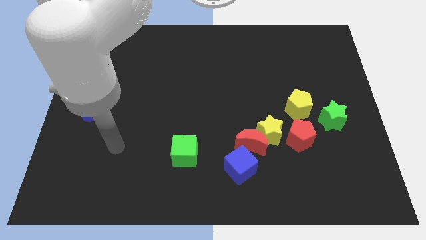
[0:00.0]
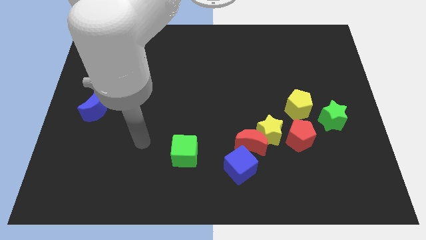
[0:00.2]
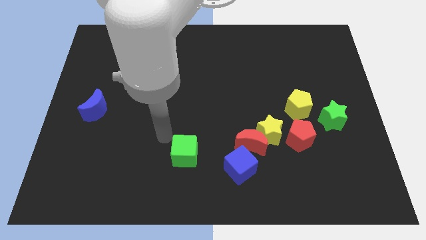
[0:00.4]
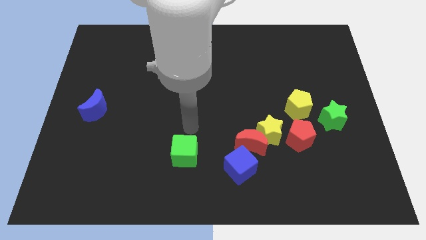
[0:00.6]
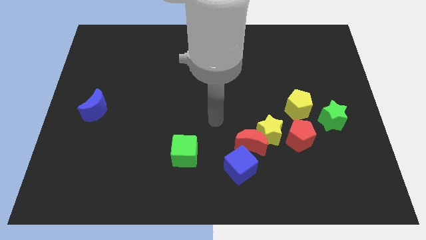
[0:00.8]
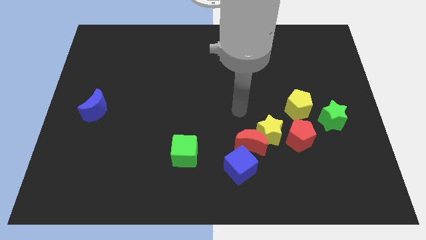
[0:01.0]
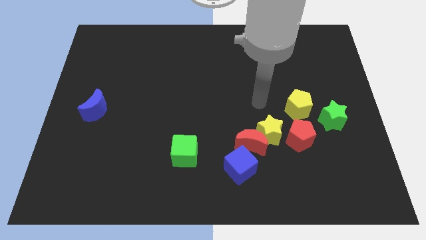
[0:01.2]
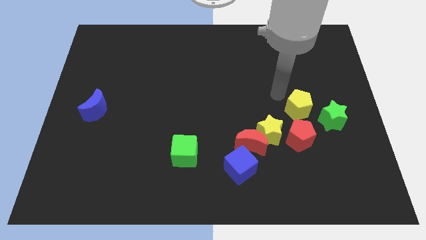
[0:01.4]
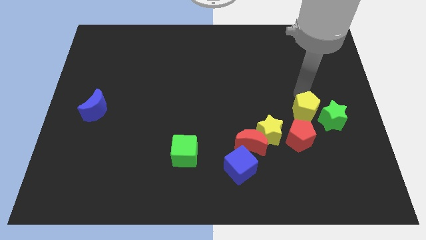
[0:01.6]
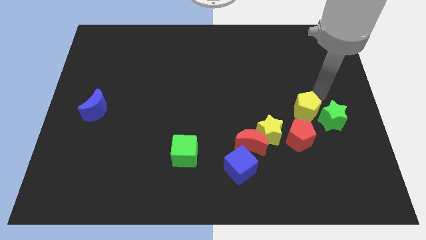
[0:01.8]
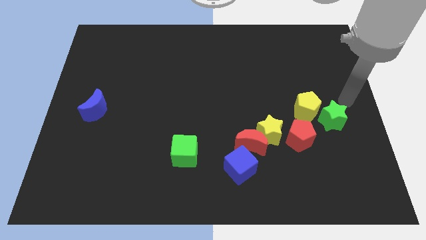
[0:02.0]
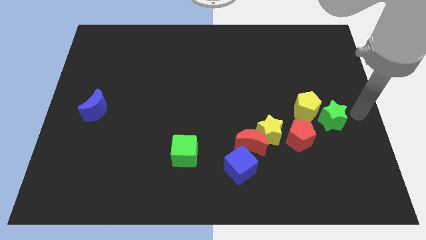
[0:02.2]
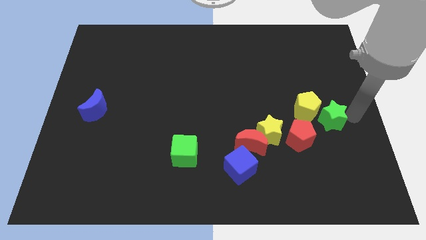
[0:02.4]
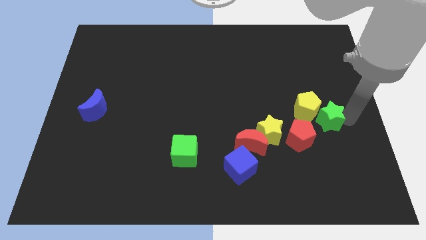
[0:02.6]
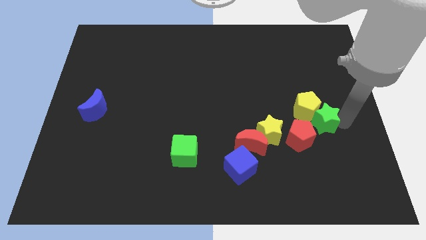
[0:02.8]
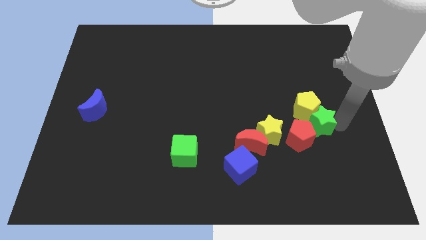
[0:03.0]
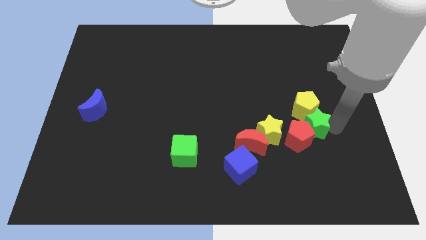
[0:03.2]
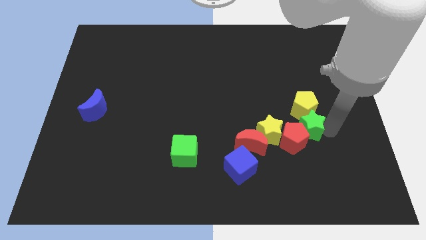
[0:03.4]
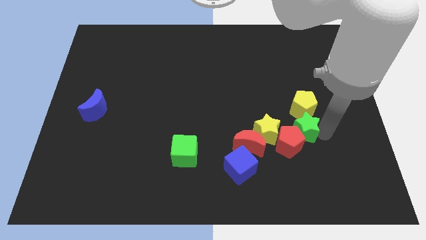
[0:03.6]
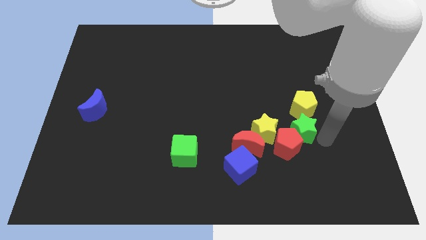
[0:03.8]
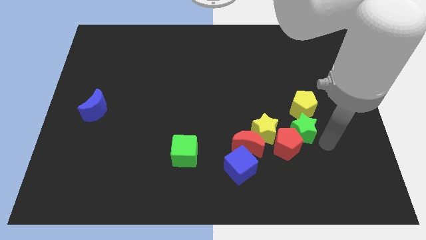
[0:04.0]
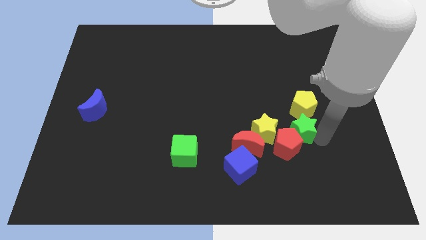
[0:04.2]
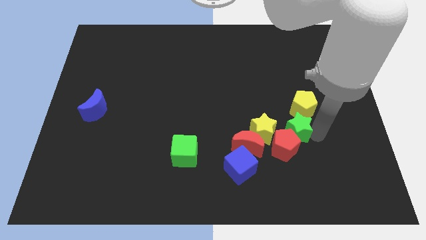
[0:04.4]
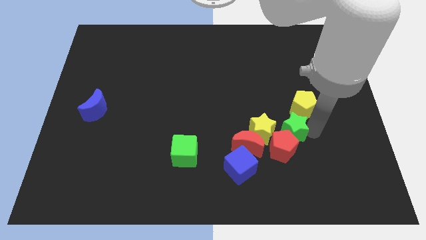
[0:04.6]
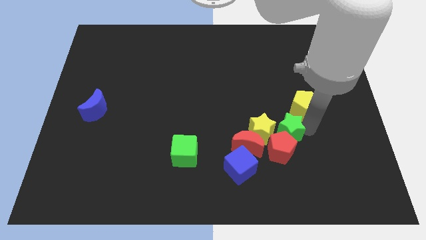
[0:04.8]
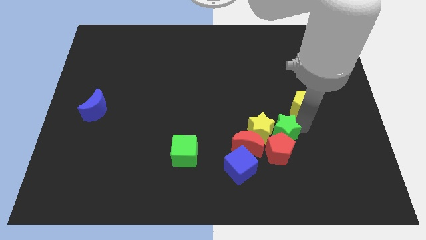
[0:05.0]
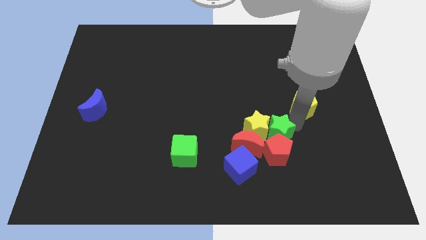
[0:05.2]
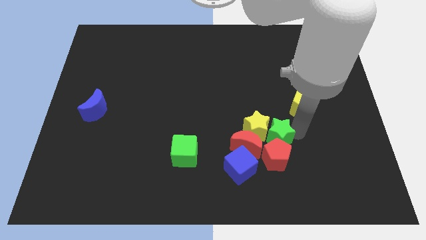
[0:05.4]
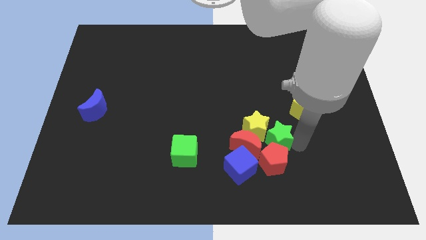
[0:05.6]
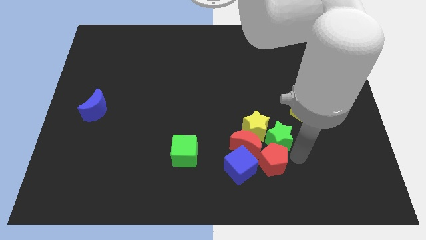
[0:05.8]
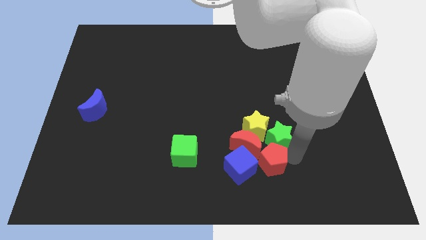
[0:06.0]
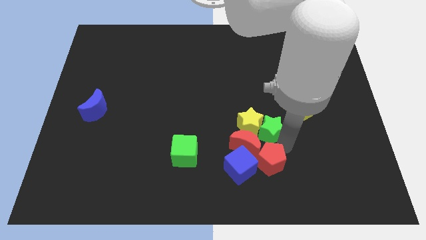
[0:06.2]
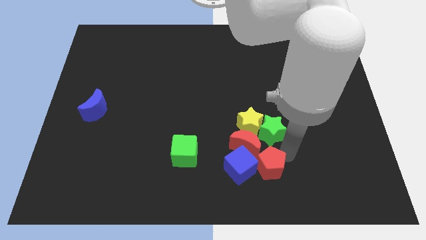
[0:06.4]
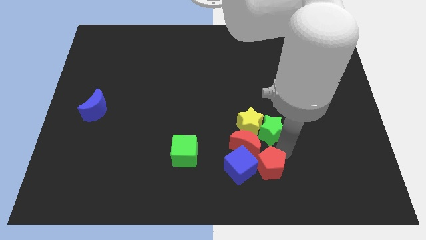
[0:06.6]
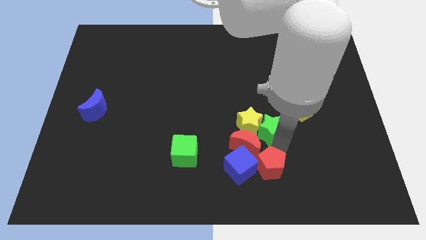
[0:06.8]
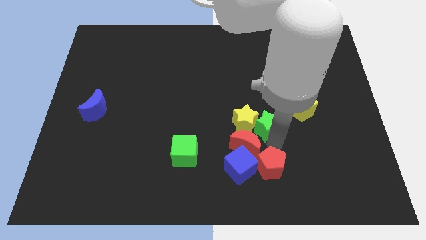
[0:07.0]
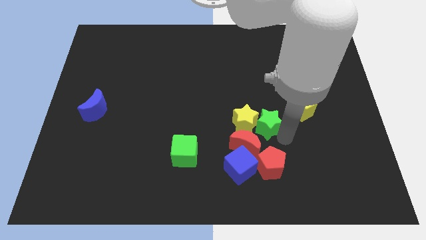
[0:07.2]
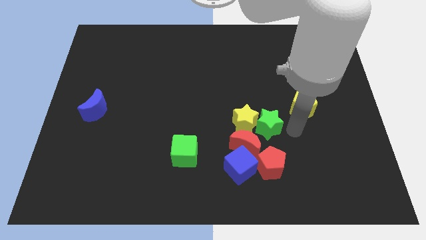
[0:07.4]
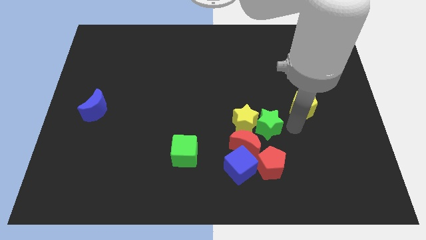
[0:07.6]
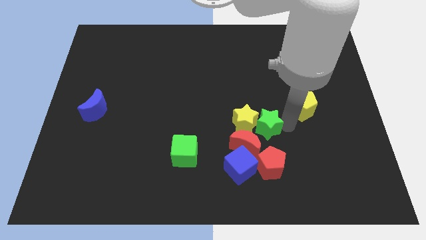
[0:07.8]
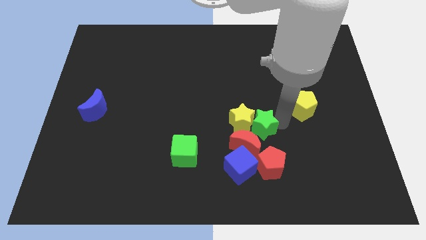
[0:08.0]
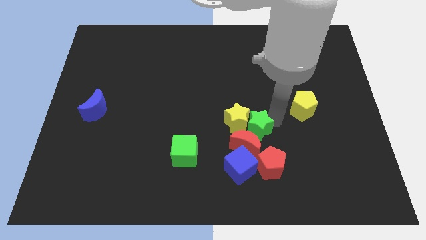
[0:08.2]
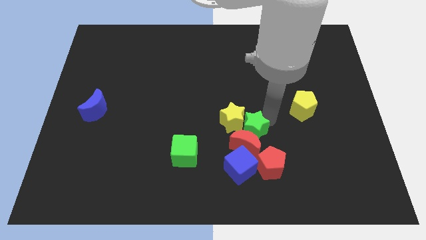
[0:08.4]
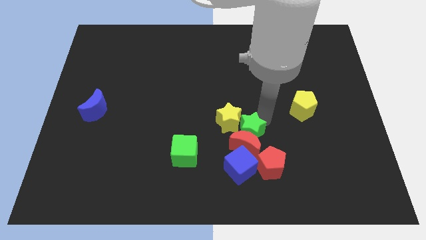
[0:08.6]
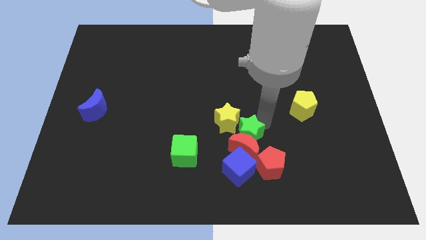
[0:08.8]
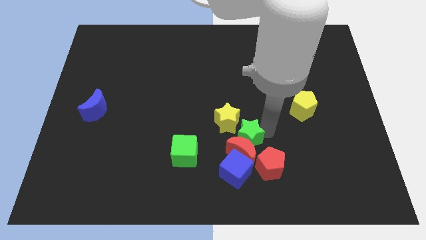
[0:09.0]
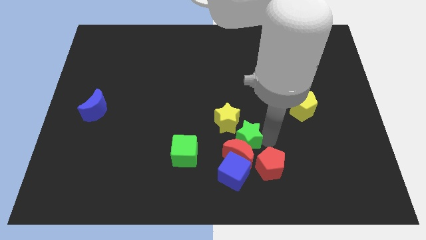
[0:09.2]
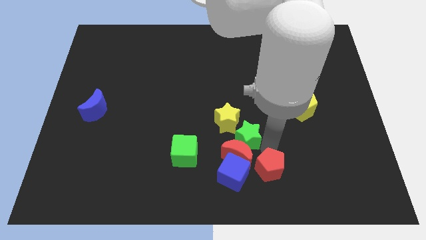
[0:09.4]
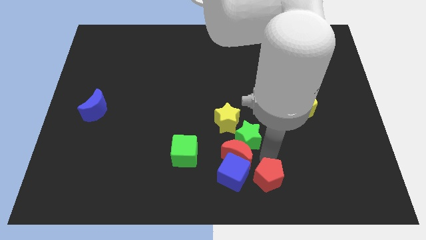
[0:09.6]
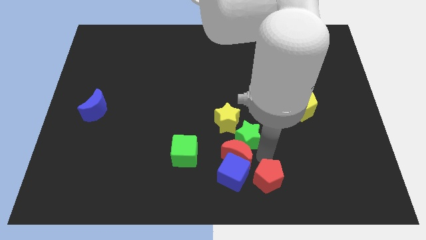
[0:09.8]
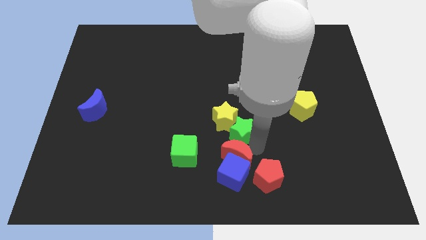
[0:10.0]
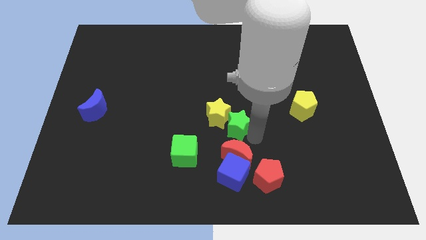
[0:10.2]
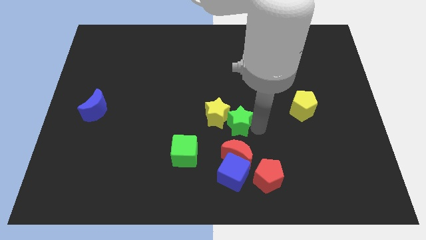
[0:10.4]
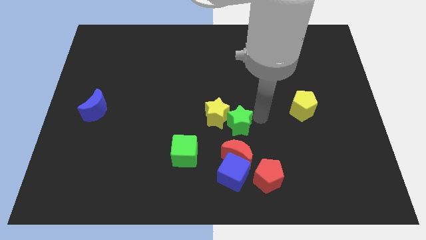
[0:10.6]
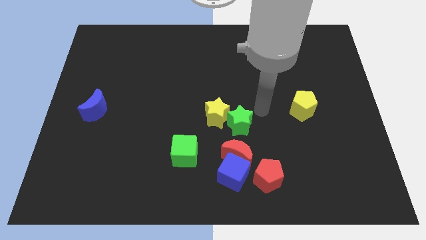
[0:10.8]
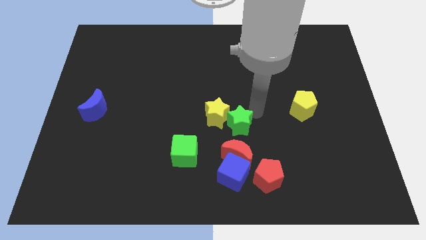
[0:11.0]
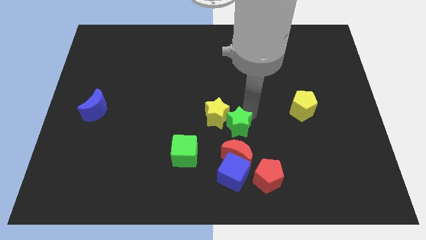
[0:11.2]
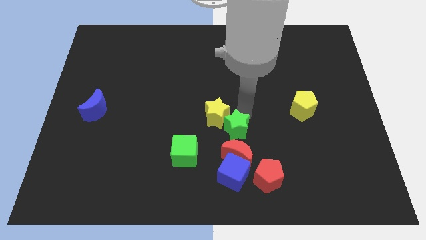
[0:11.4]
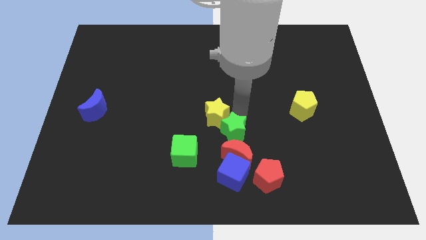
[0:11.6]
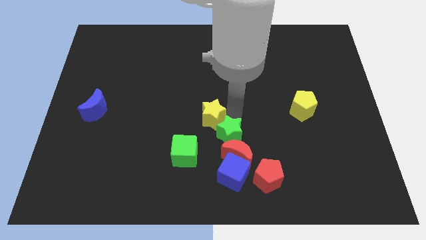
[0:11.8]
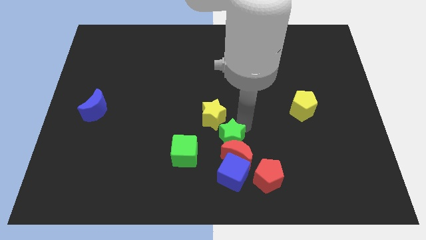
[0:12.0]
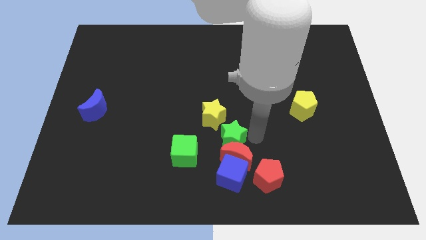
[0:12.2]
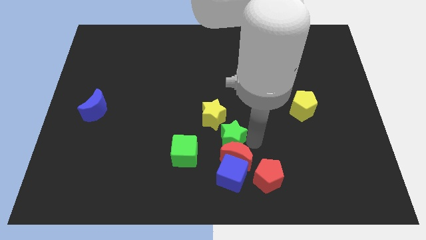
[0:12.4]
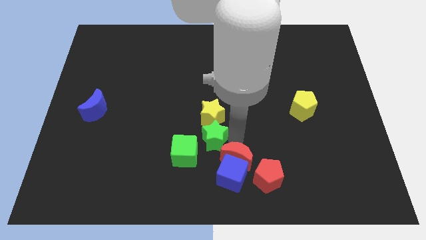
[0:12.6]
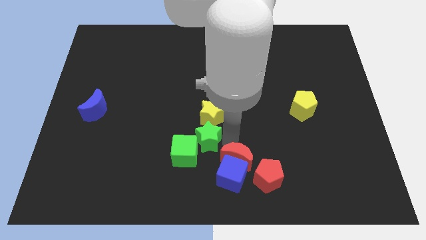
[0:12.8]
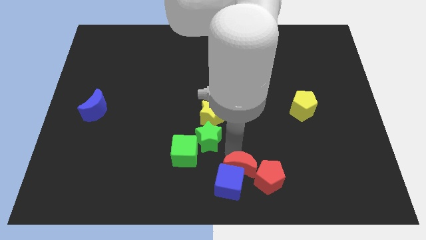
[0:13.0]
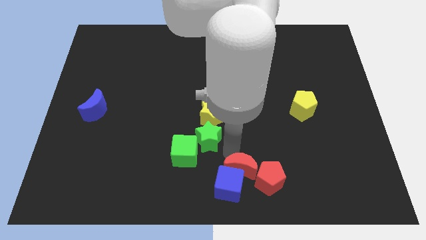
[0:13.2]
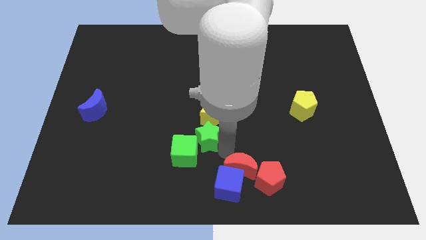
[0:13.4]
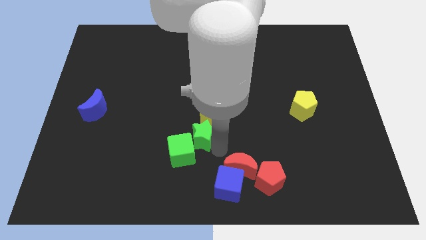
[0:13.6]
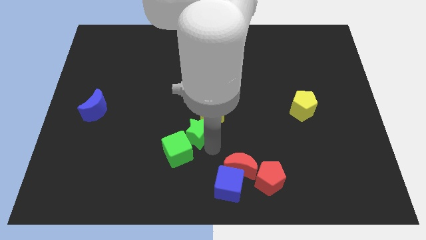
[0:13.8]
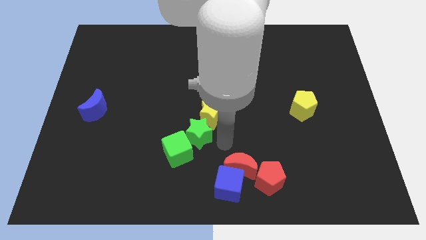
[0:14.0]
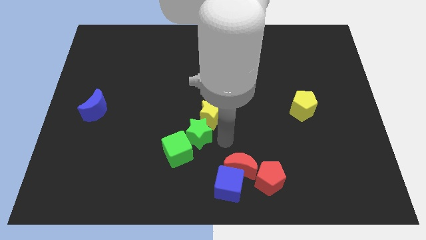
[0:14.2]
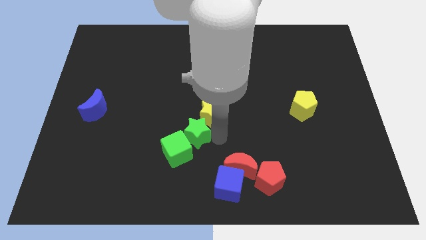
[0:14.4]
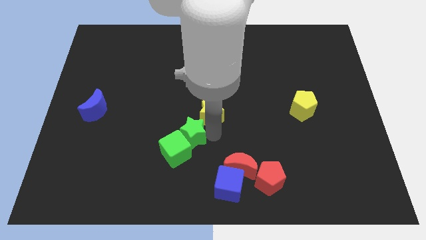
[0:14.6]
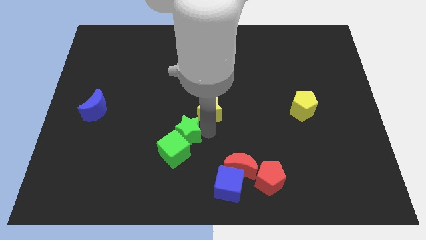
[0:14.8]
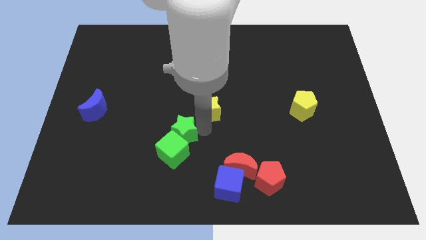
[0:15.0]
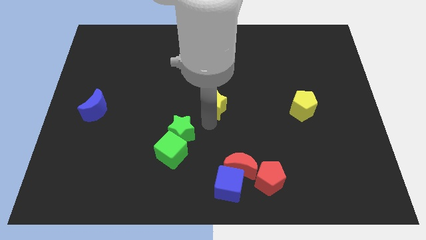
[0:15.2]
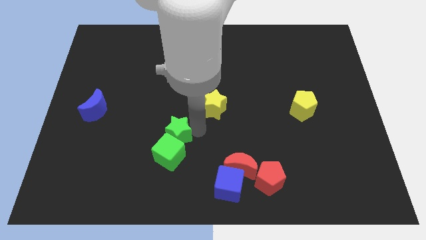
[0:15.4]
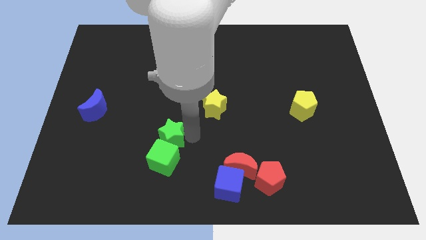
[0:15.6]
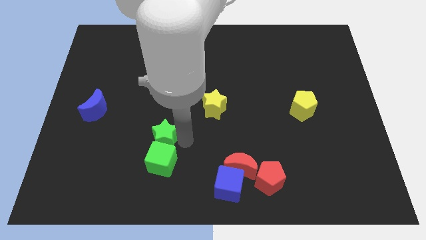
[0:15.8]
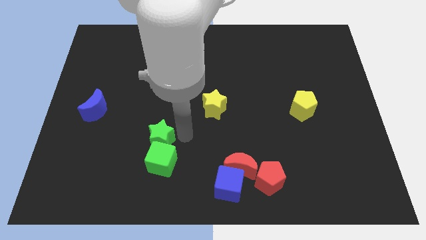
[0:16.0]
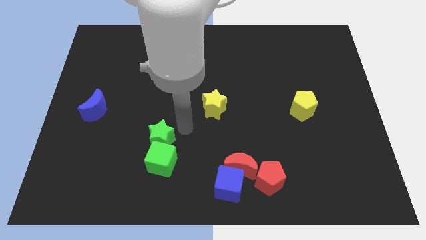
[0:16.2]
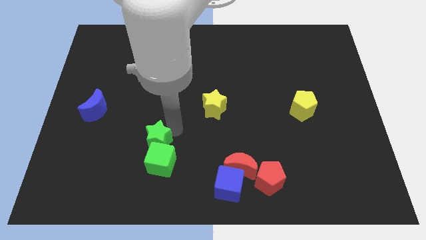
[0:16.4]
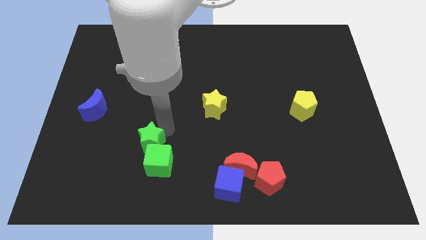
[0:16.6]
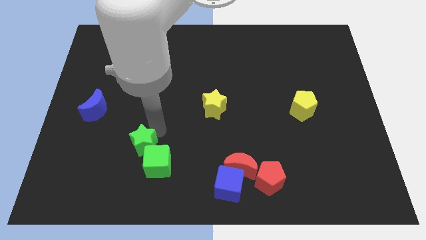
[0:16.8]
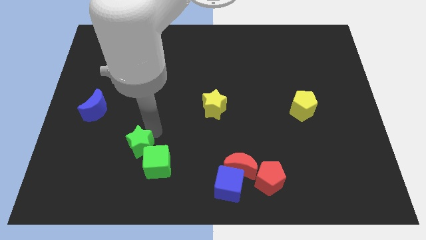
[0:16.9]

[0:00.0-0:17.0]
slide the green star left of the green cube

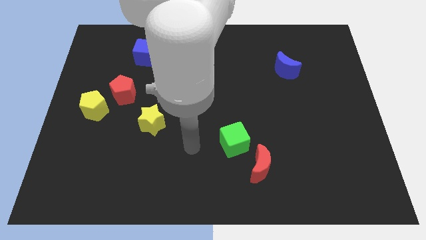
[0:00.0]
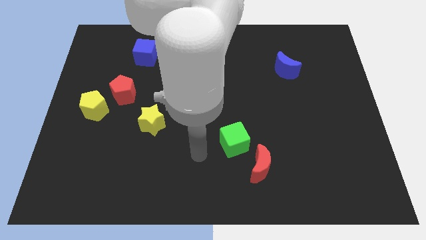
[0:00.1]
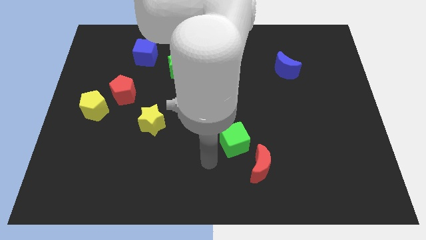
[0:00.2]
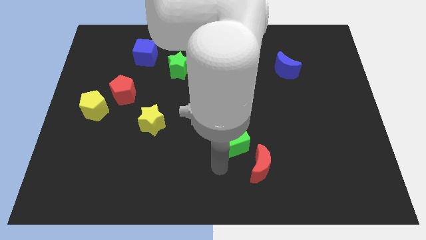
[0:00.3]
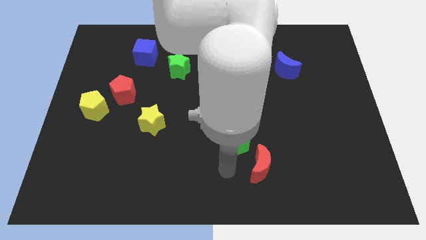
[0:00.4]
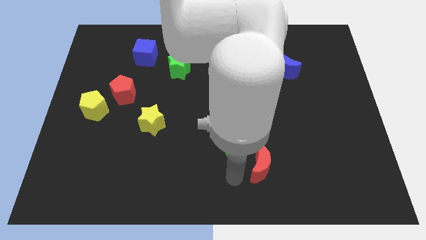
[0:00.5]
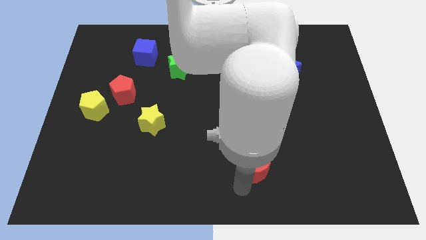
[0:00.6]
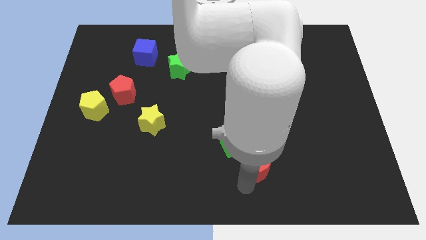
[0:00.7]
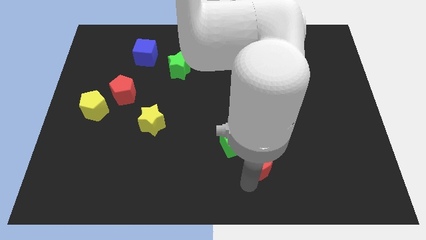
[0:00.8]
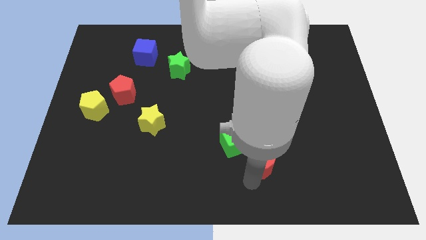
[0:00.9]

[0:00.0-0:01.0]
slide the red moon just right of the green cube
